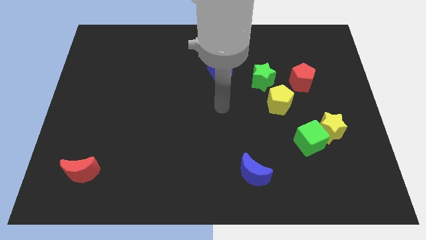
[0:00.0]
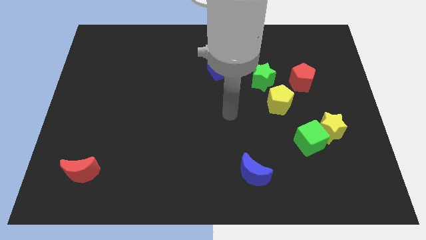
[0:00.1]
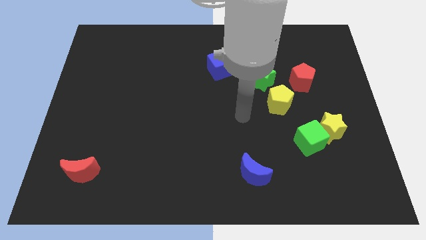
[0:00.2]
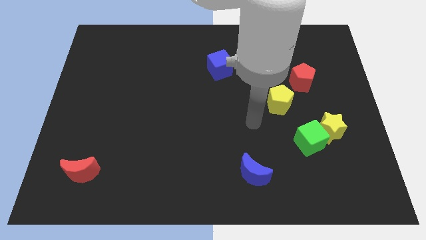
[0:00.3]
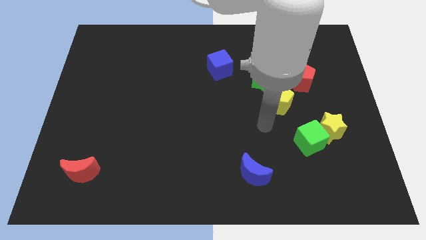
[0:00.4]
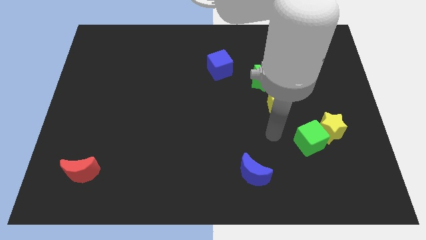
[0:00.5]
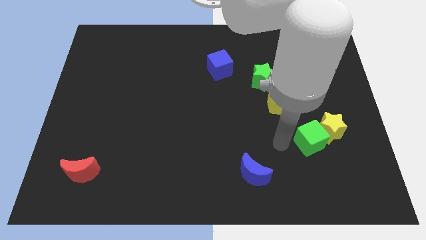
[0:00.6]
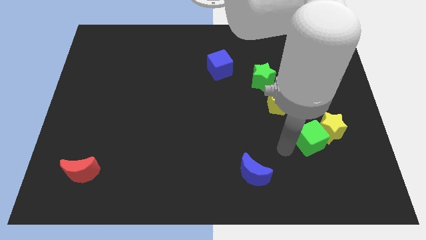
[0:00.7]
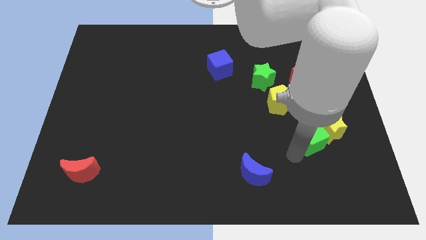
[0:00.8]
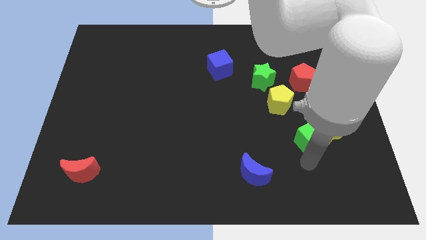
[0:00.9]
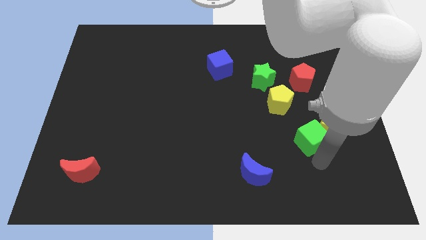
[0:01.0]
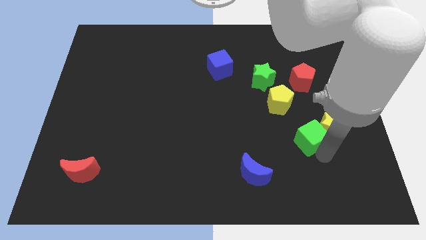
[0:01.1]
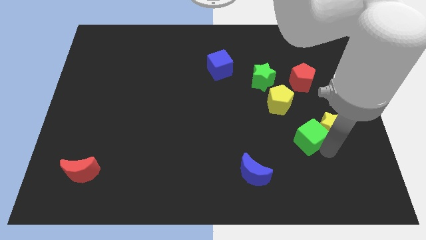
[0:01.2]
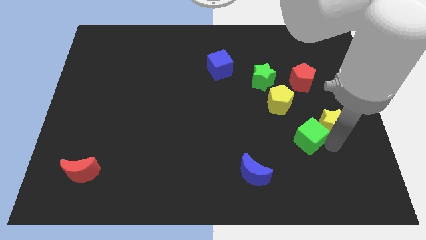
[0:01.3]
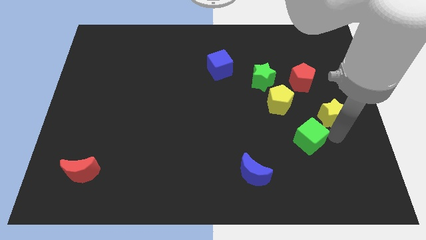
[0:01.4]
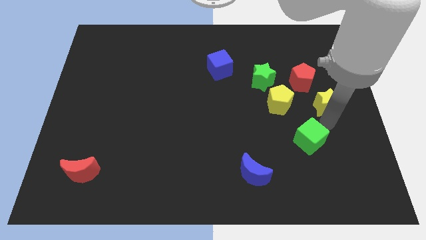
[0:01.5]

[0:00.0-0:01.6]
pull the green cube apart from the yellow star

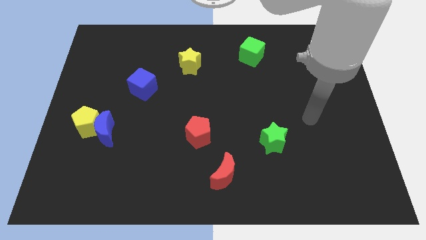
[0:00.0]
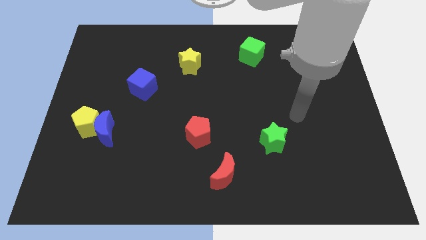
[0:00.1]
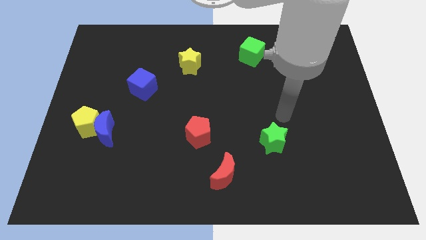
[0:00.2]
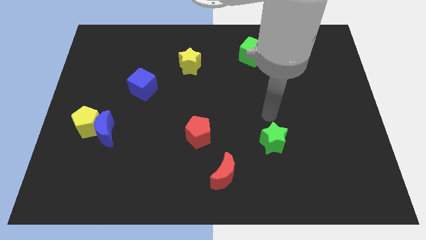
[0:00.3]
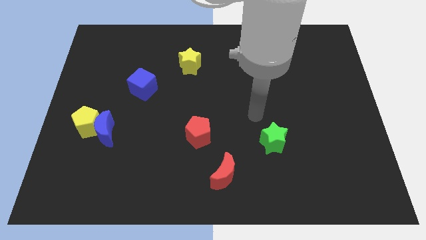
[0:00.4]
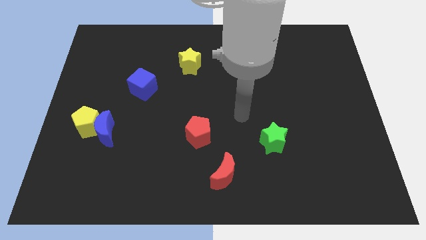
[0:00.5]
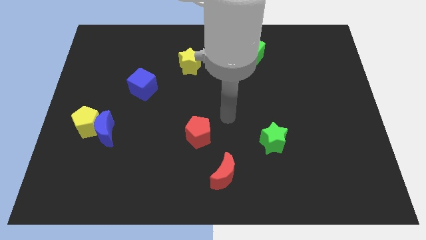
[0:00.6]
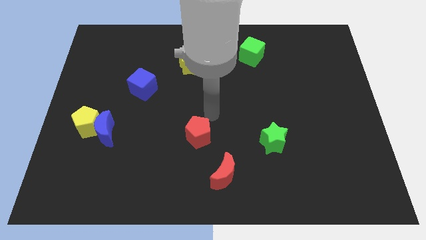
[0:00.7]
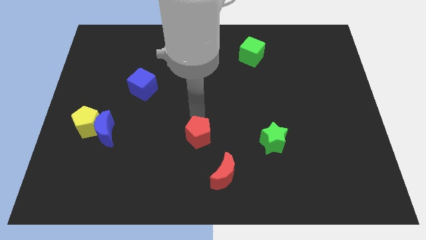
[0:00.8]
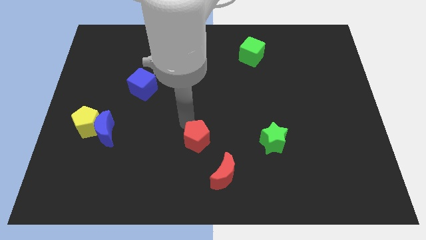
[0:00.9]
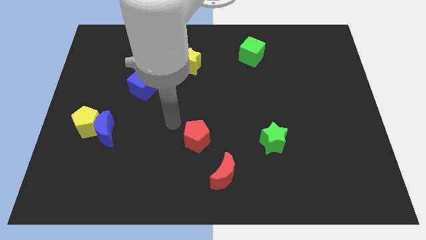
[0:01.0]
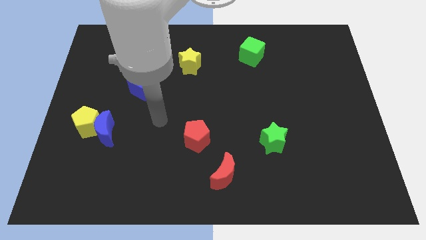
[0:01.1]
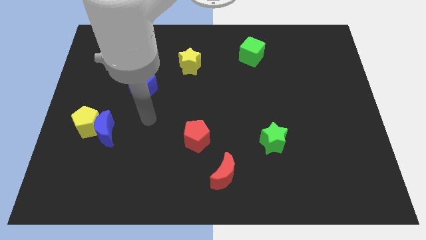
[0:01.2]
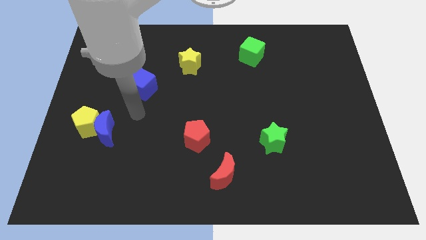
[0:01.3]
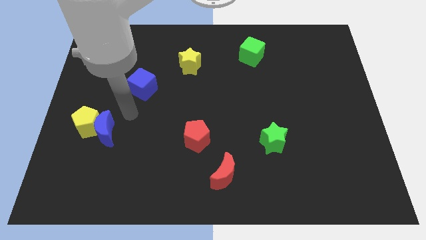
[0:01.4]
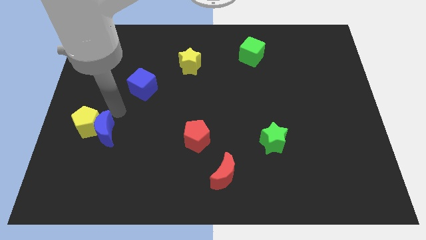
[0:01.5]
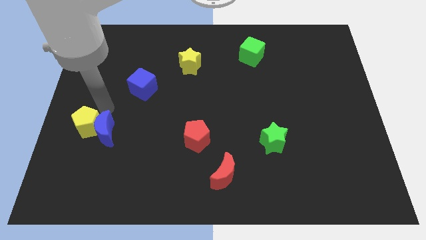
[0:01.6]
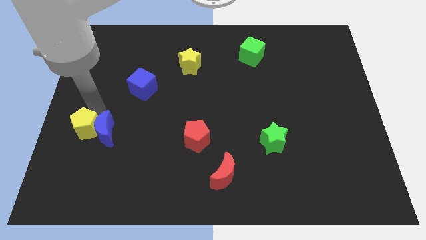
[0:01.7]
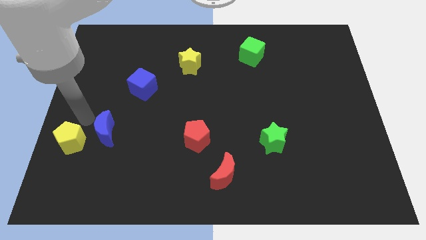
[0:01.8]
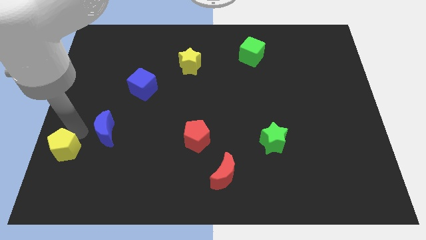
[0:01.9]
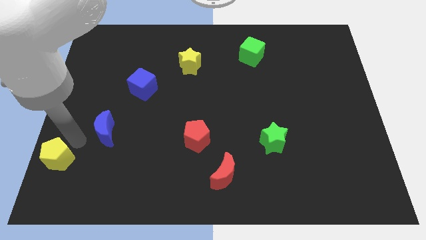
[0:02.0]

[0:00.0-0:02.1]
separate the blue moon from the yellow pentagon

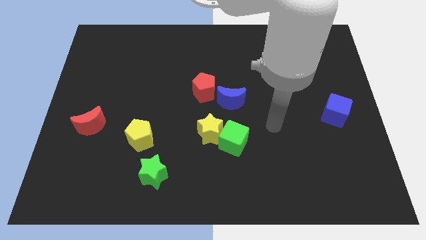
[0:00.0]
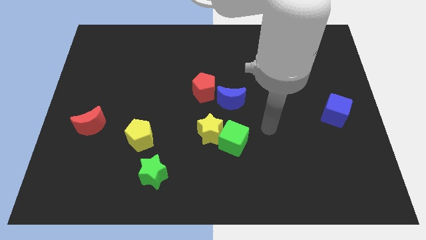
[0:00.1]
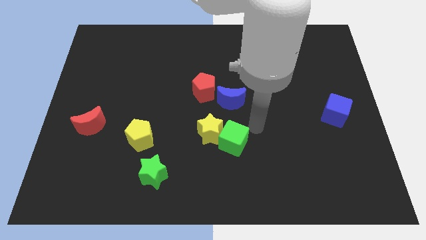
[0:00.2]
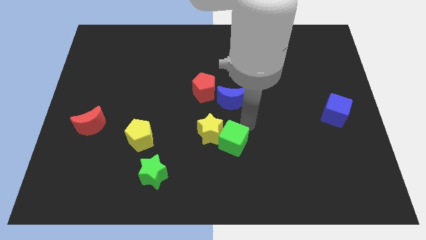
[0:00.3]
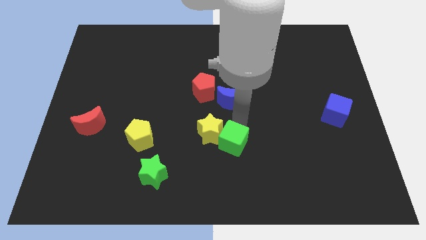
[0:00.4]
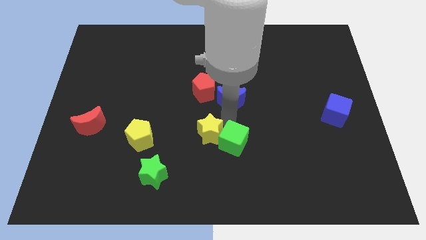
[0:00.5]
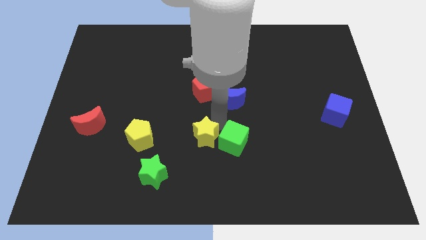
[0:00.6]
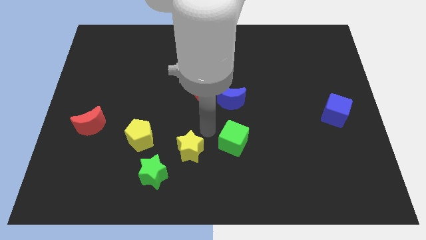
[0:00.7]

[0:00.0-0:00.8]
move the green cube away from the yellow star

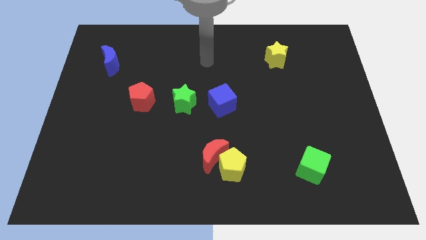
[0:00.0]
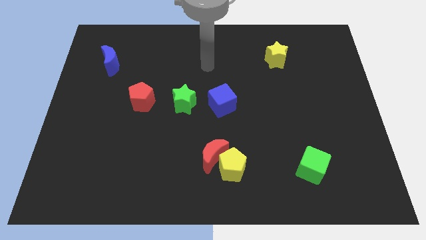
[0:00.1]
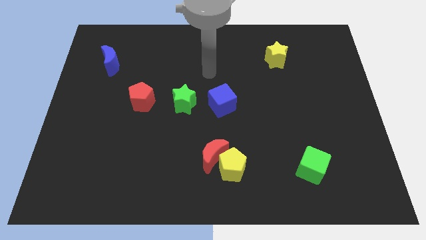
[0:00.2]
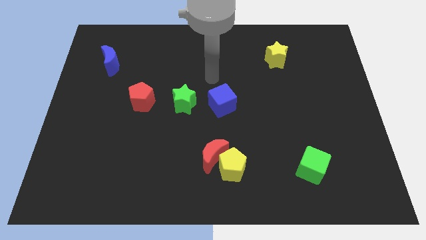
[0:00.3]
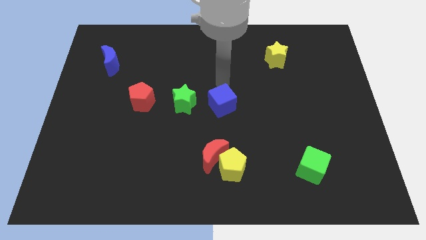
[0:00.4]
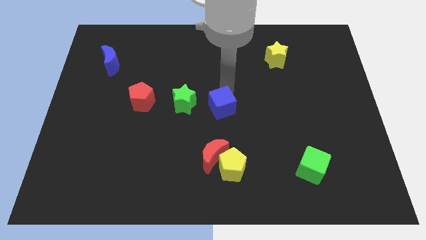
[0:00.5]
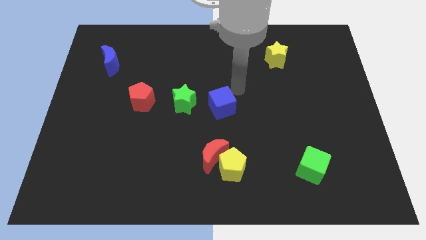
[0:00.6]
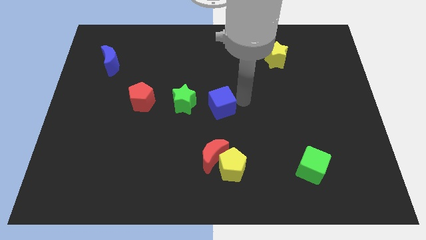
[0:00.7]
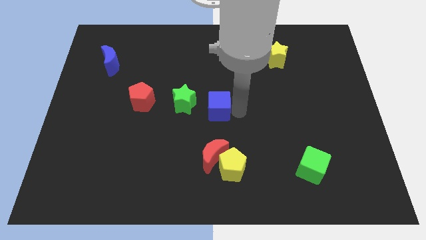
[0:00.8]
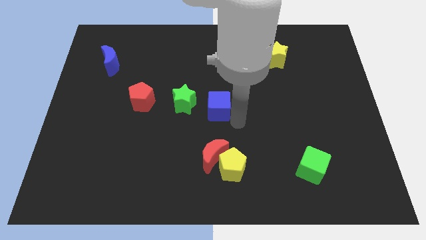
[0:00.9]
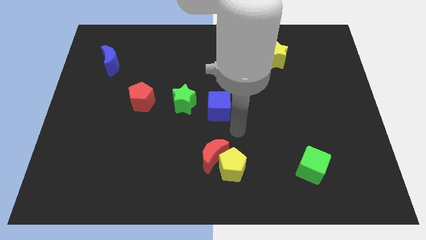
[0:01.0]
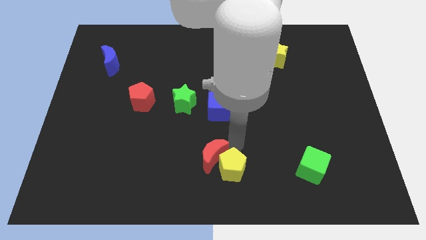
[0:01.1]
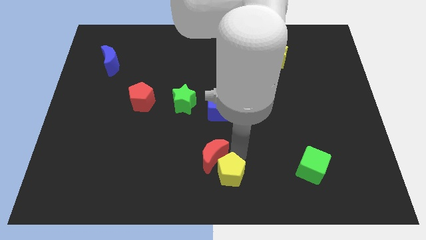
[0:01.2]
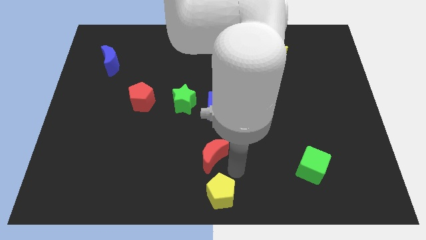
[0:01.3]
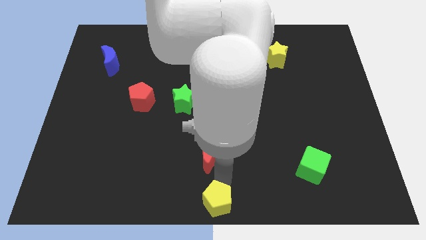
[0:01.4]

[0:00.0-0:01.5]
pull the red moon apart from the yellow pentagon

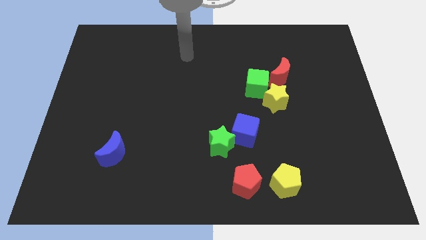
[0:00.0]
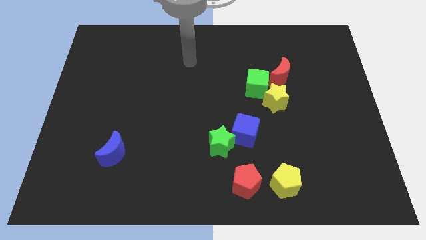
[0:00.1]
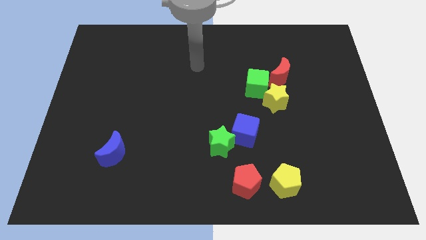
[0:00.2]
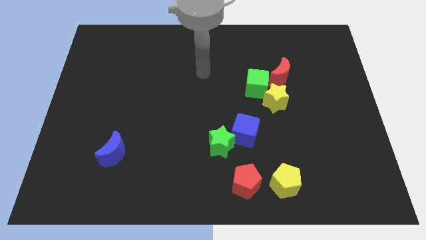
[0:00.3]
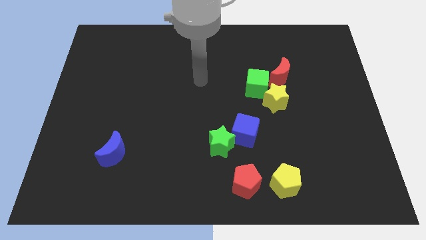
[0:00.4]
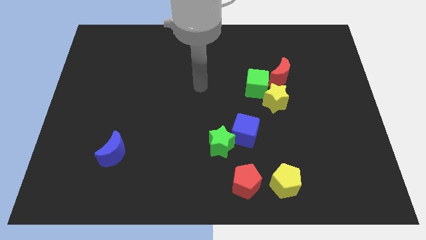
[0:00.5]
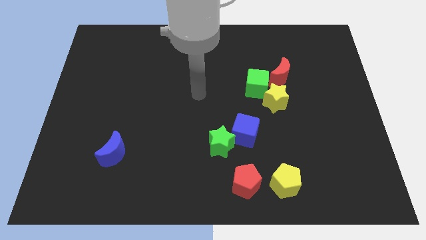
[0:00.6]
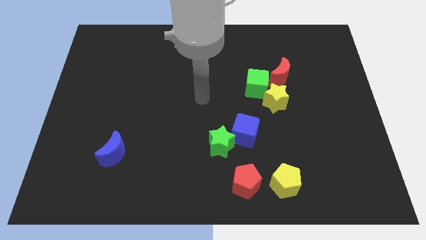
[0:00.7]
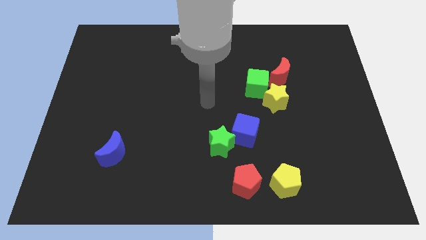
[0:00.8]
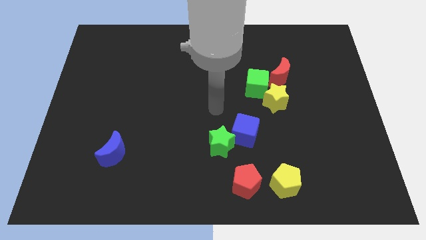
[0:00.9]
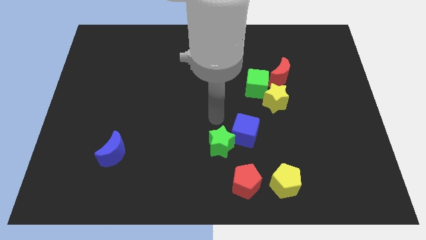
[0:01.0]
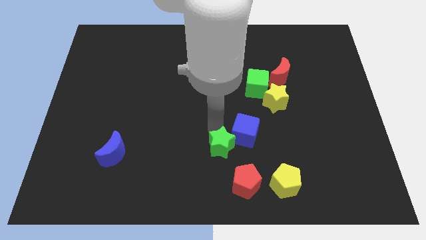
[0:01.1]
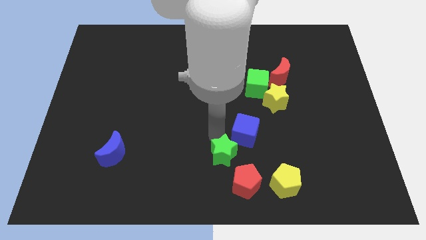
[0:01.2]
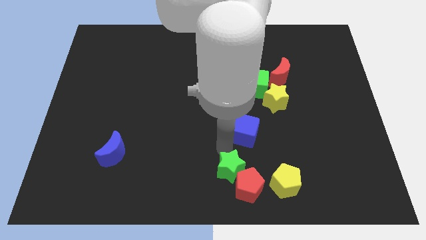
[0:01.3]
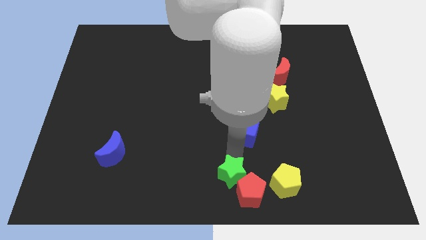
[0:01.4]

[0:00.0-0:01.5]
move the blue cube away from the green star

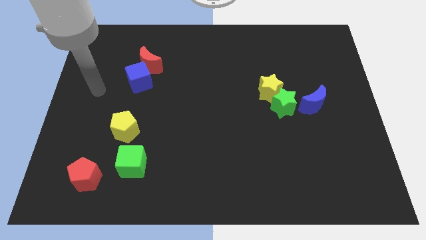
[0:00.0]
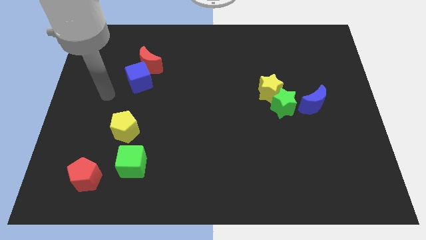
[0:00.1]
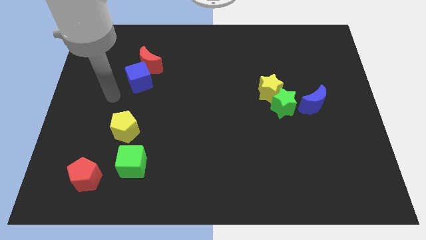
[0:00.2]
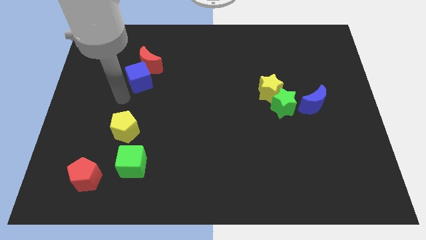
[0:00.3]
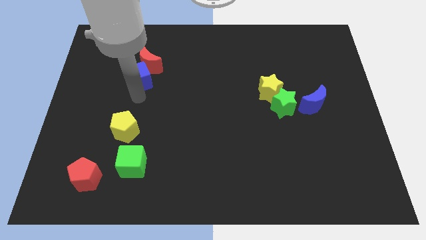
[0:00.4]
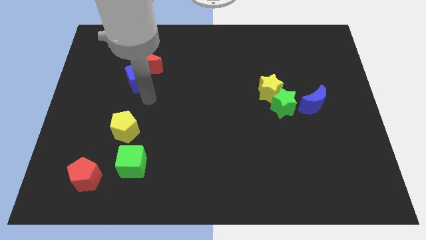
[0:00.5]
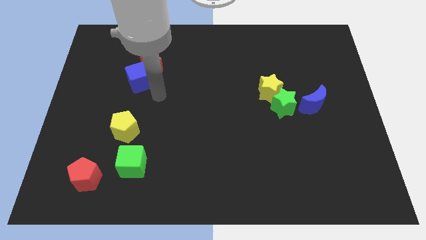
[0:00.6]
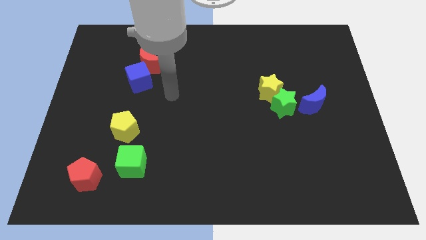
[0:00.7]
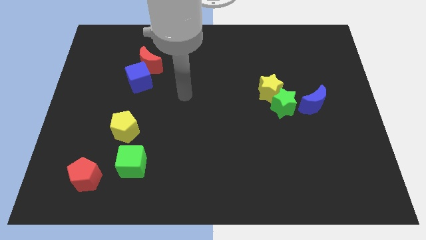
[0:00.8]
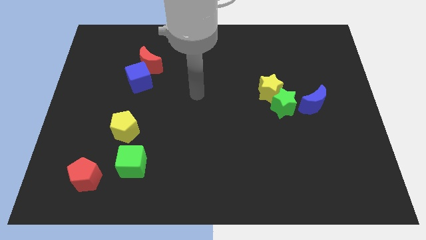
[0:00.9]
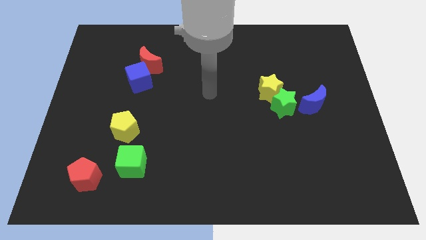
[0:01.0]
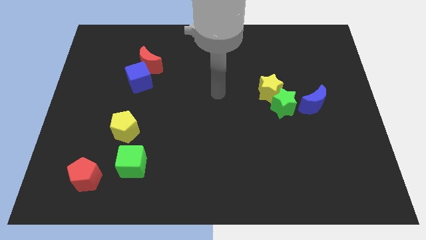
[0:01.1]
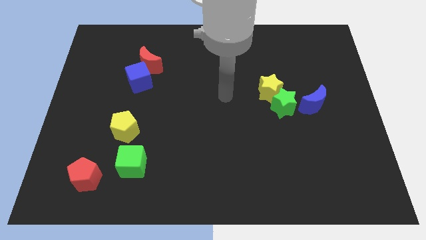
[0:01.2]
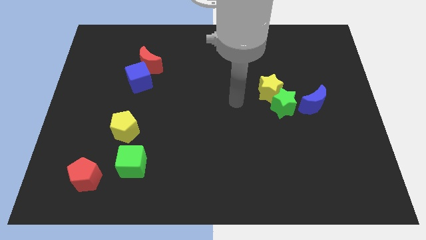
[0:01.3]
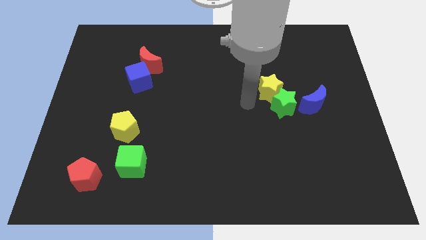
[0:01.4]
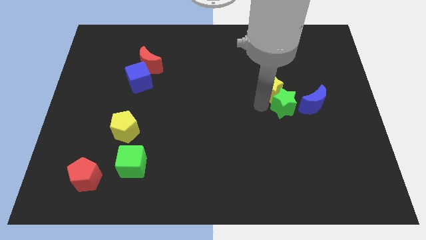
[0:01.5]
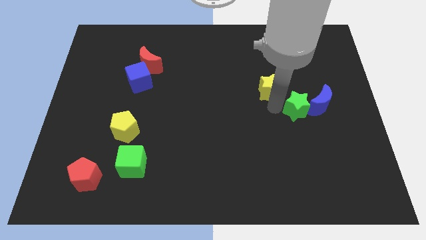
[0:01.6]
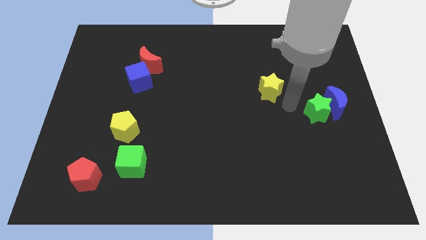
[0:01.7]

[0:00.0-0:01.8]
move the yellow star away from the green star
